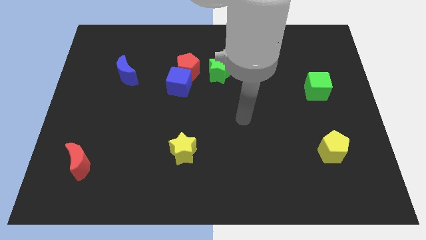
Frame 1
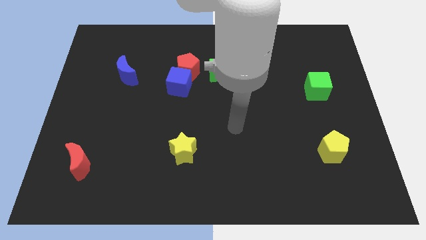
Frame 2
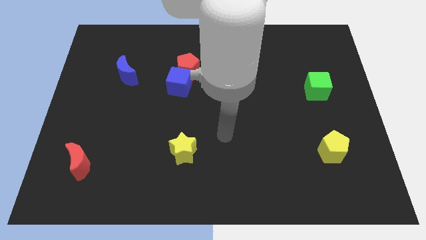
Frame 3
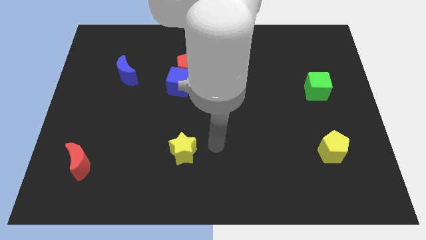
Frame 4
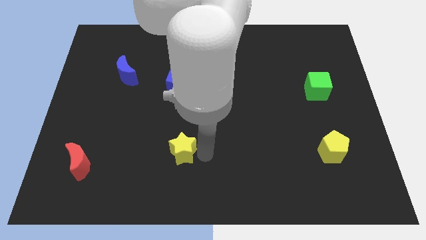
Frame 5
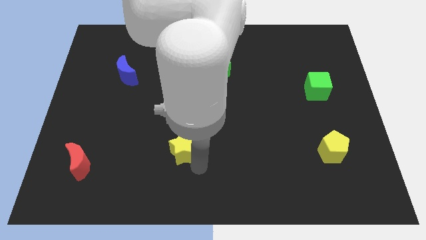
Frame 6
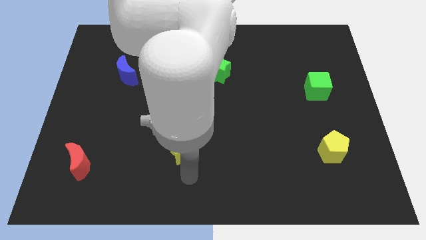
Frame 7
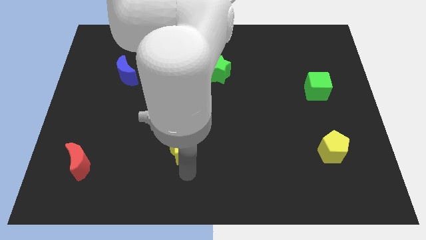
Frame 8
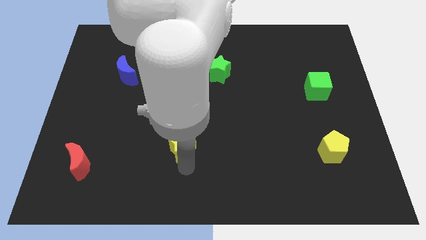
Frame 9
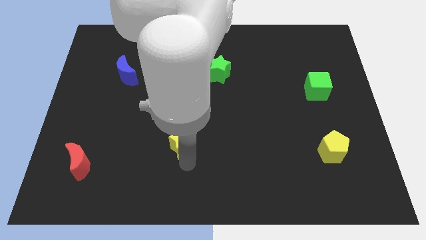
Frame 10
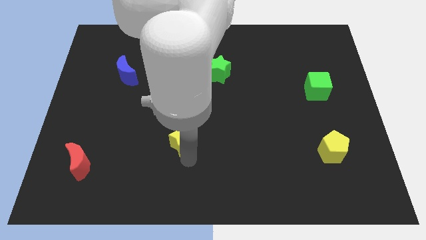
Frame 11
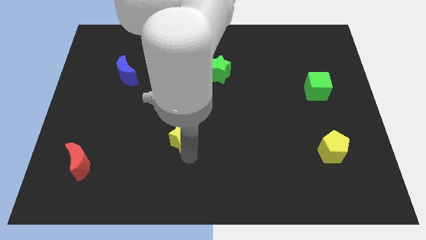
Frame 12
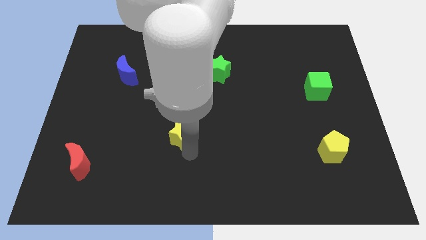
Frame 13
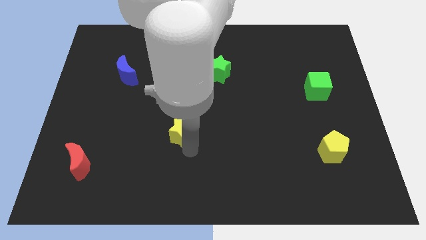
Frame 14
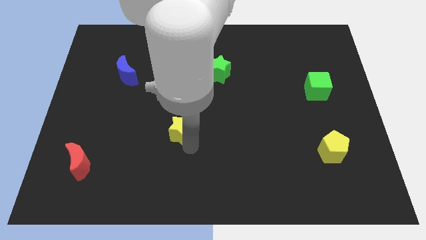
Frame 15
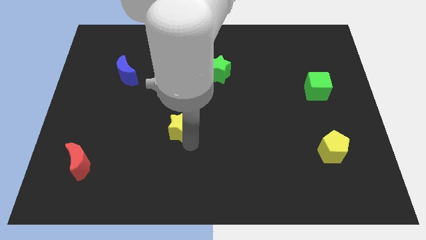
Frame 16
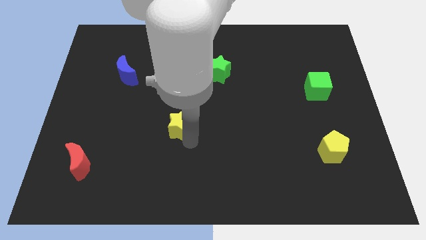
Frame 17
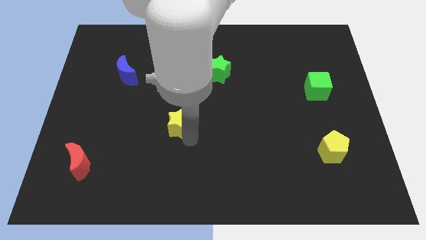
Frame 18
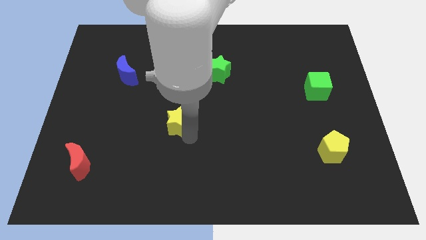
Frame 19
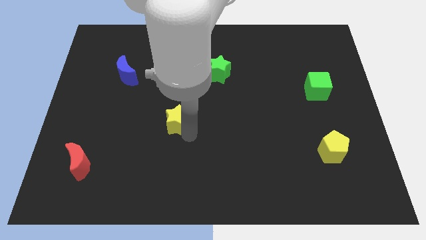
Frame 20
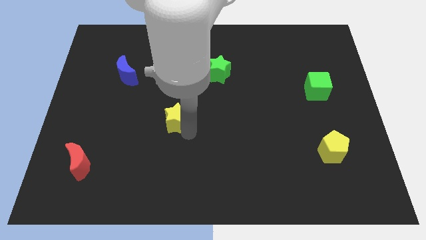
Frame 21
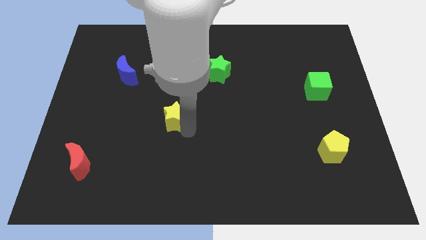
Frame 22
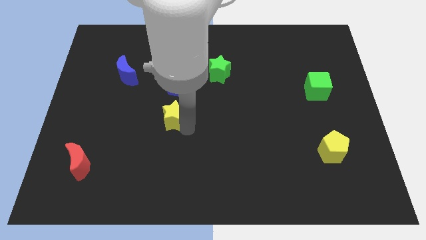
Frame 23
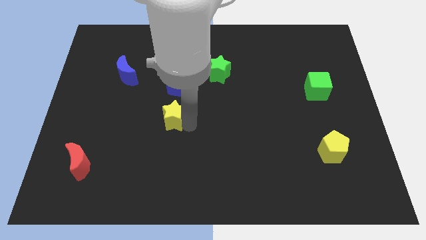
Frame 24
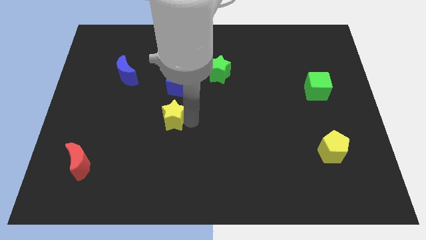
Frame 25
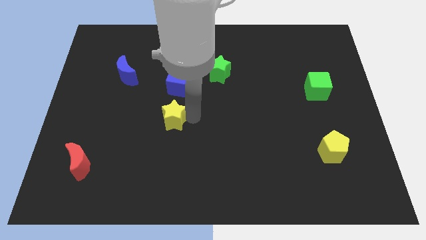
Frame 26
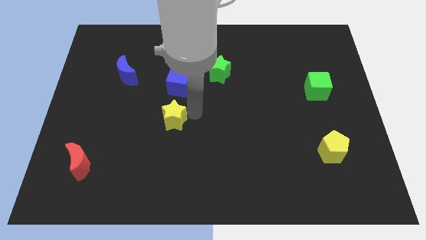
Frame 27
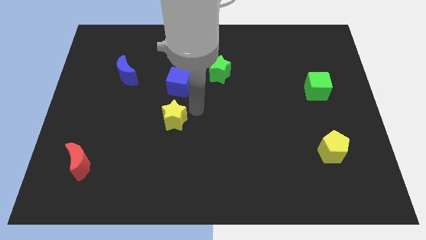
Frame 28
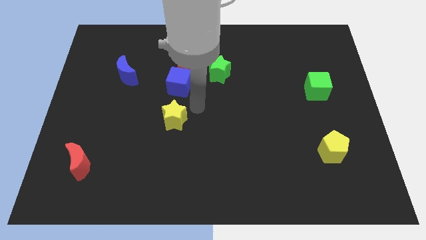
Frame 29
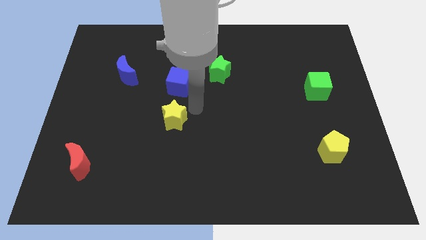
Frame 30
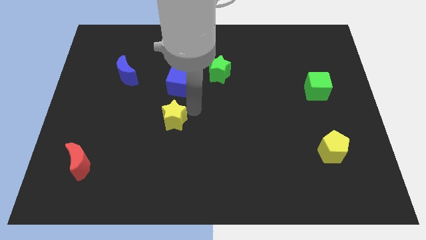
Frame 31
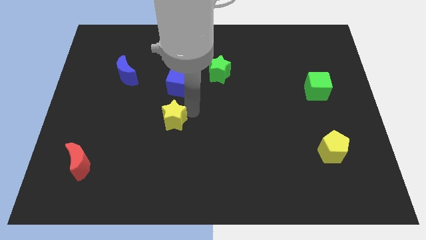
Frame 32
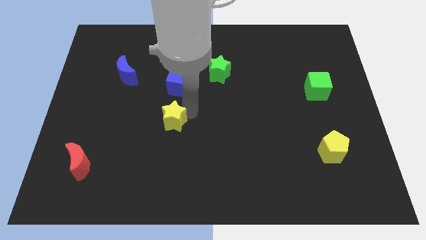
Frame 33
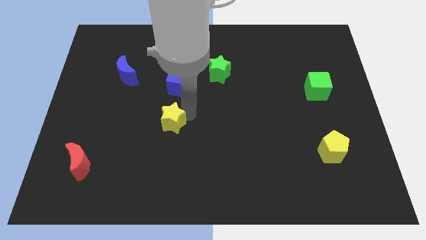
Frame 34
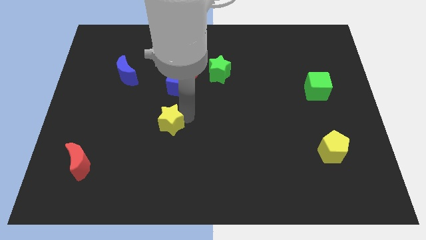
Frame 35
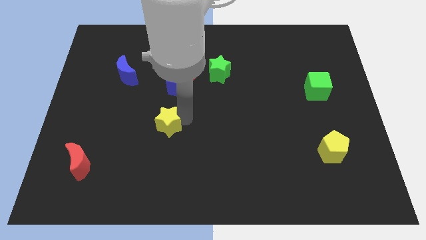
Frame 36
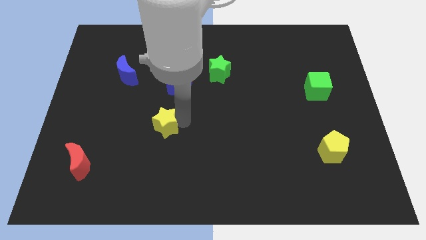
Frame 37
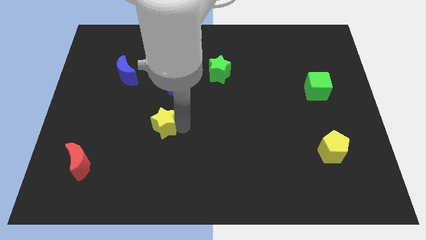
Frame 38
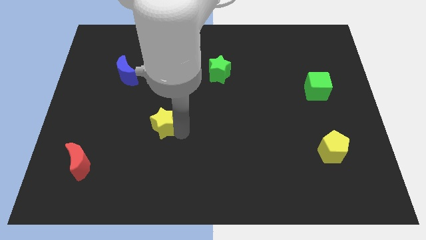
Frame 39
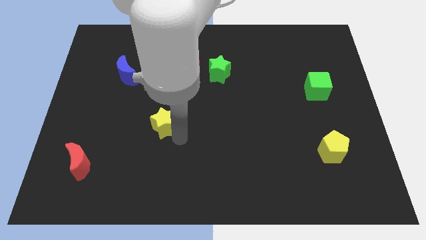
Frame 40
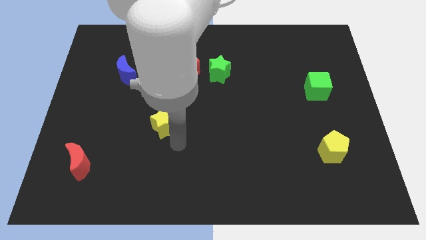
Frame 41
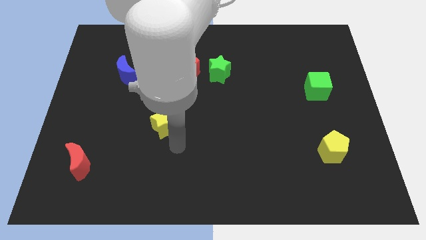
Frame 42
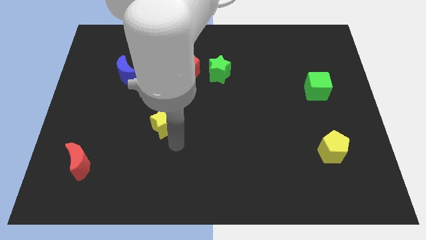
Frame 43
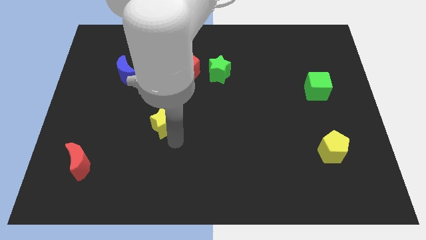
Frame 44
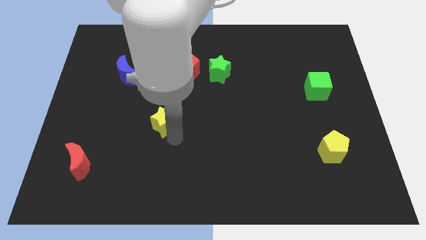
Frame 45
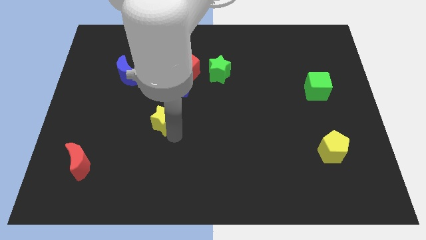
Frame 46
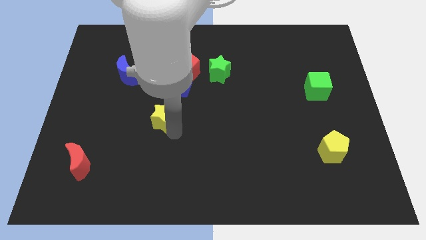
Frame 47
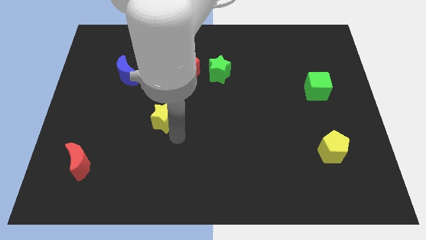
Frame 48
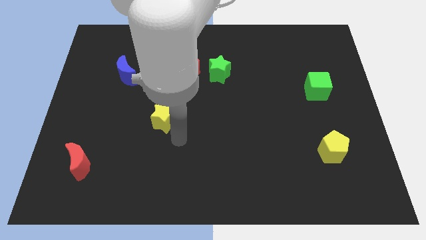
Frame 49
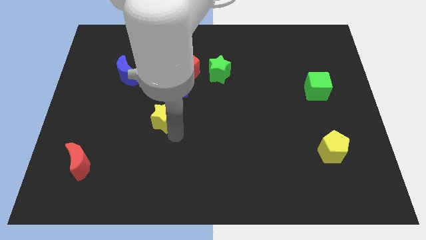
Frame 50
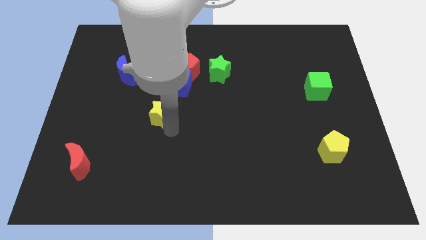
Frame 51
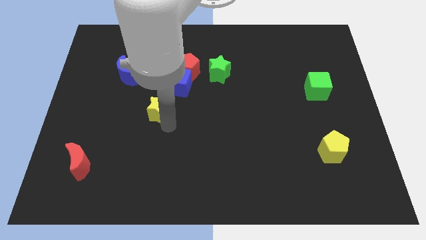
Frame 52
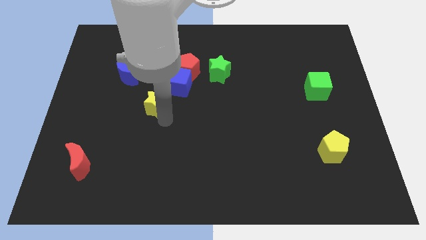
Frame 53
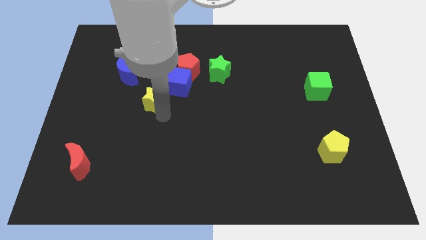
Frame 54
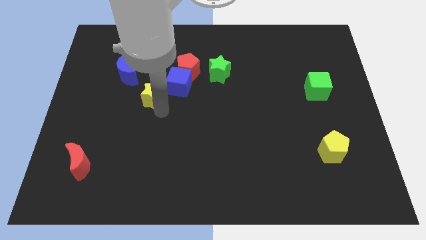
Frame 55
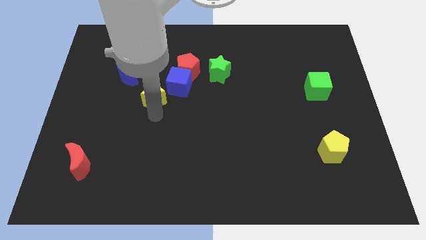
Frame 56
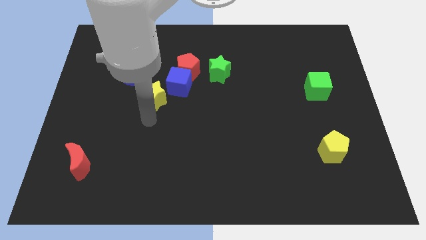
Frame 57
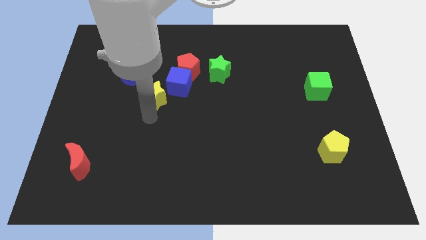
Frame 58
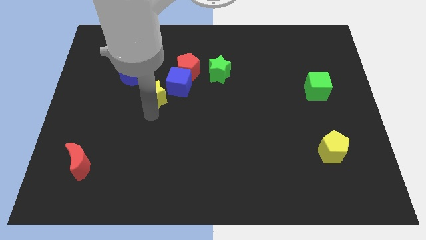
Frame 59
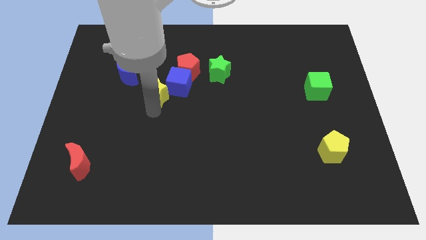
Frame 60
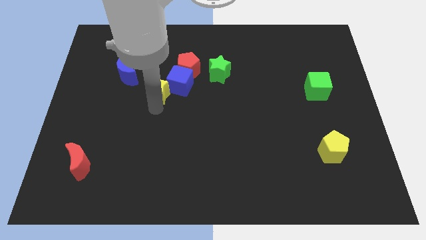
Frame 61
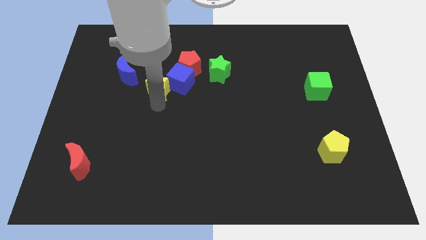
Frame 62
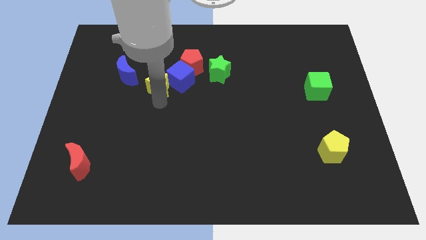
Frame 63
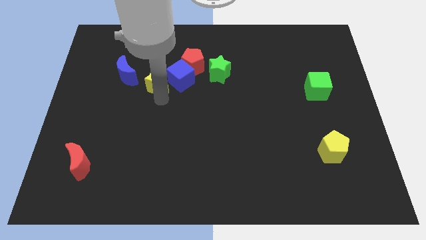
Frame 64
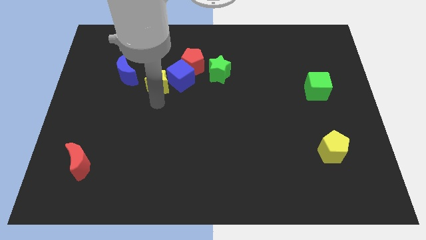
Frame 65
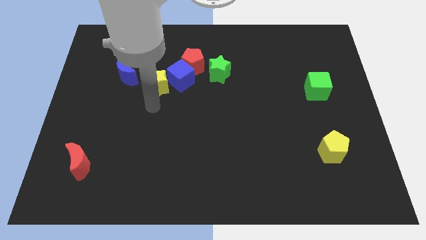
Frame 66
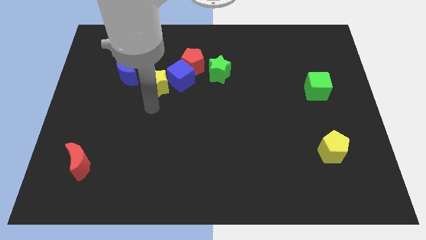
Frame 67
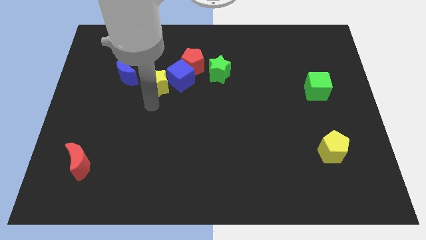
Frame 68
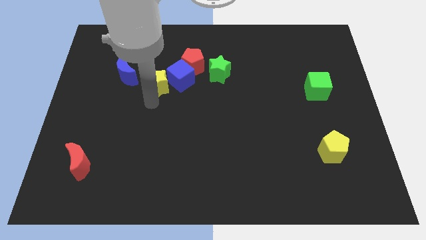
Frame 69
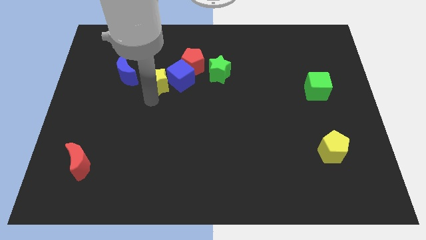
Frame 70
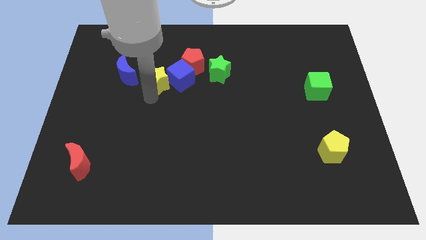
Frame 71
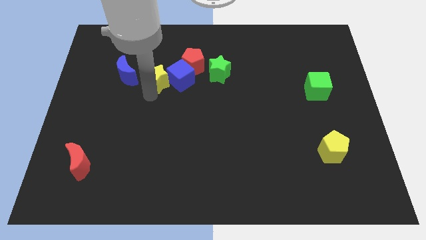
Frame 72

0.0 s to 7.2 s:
put the yellow star to the top left side of the blue cube

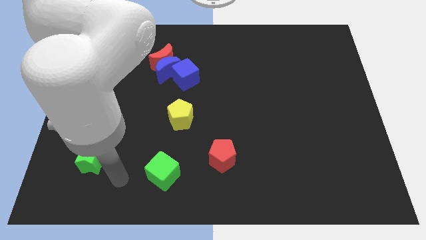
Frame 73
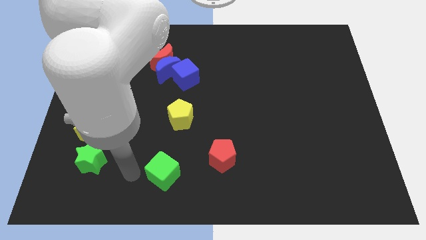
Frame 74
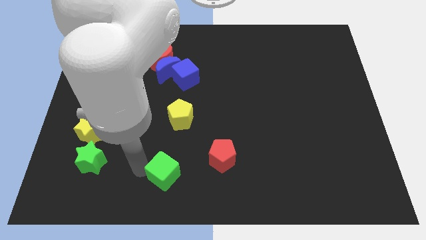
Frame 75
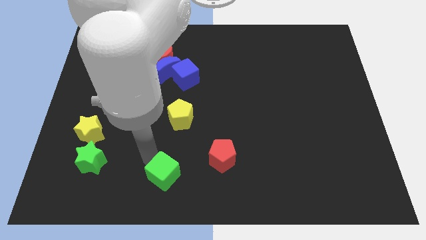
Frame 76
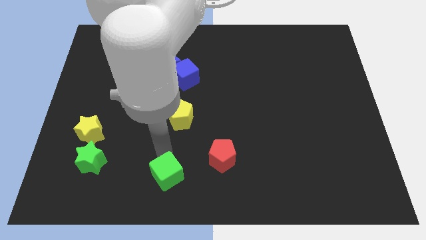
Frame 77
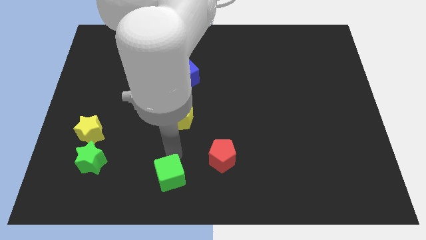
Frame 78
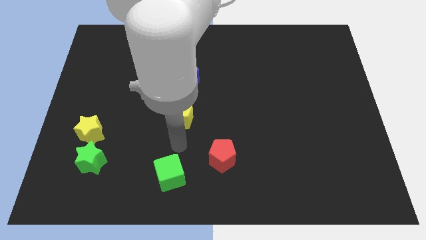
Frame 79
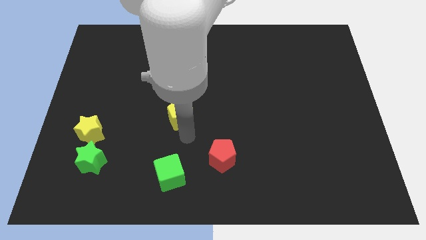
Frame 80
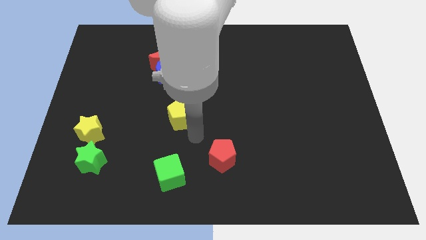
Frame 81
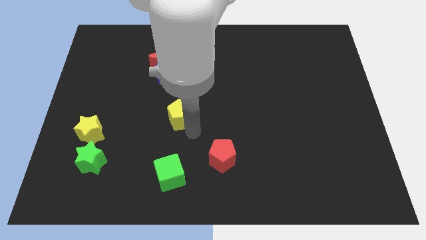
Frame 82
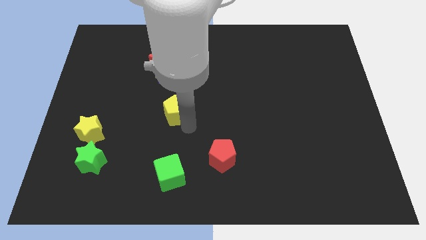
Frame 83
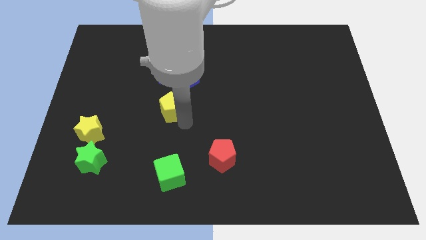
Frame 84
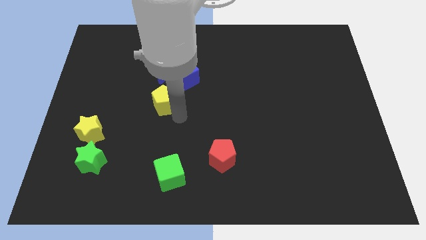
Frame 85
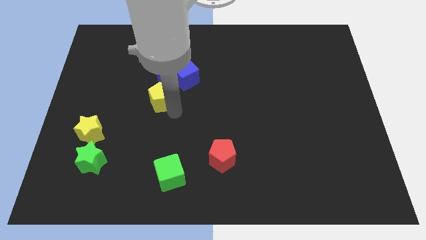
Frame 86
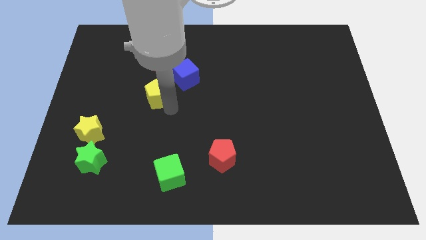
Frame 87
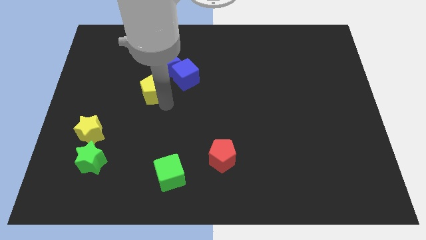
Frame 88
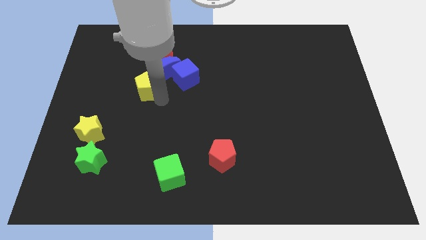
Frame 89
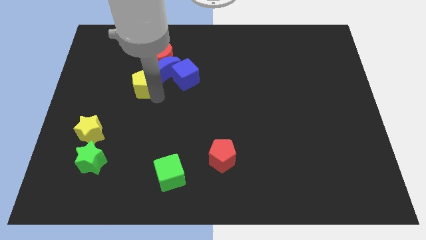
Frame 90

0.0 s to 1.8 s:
put the yellow pentagon to the left side of the blue moon
